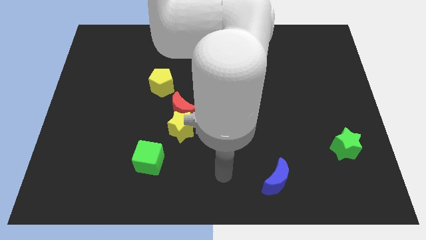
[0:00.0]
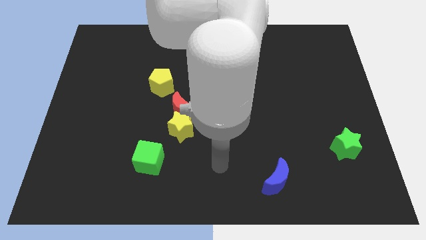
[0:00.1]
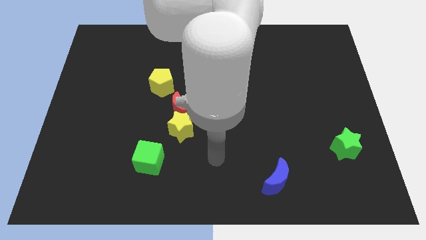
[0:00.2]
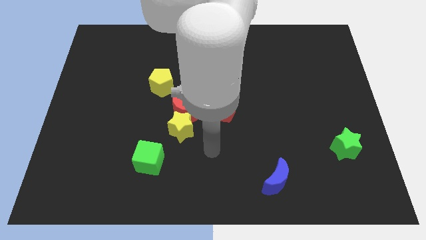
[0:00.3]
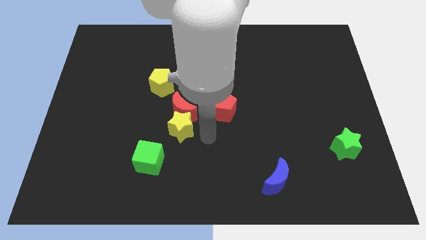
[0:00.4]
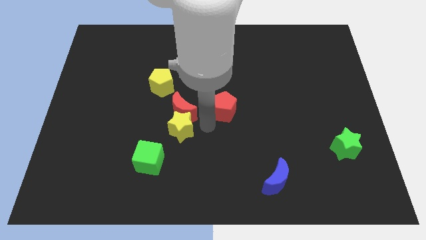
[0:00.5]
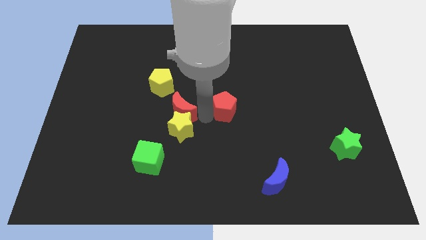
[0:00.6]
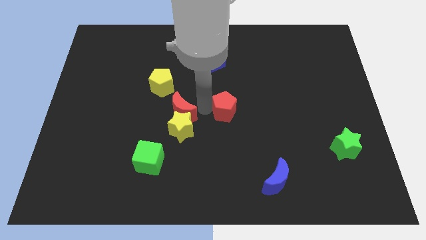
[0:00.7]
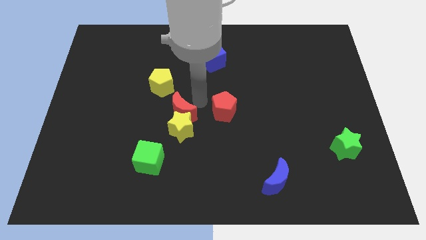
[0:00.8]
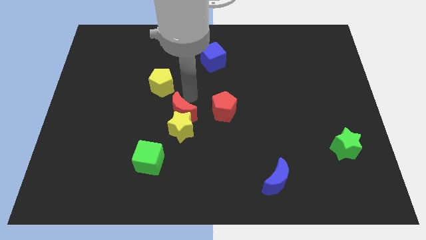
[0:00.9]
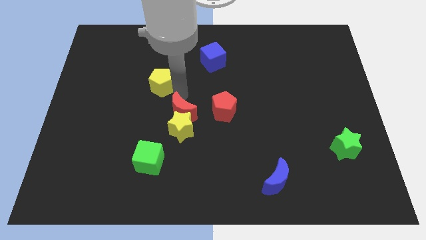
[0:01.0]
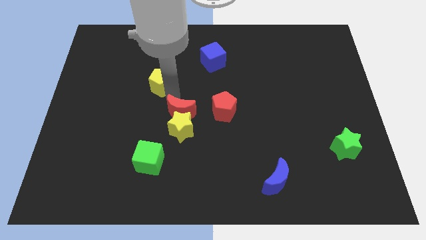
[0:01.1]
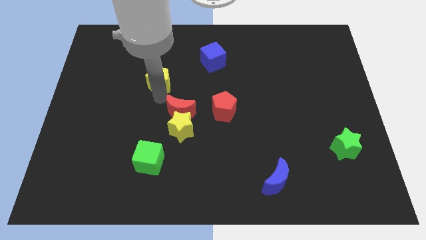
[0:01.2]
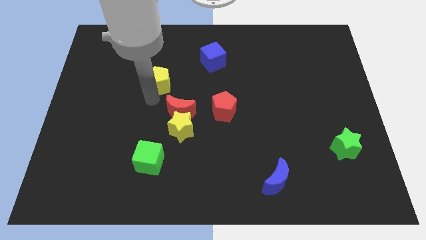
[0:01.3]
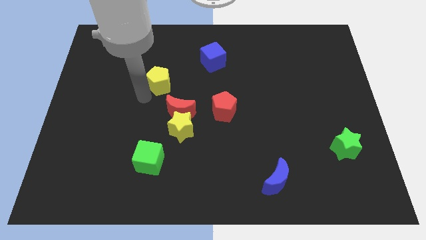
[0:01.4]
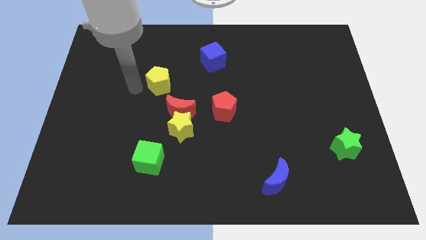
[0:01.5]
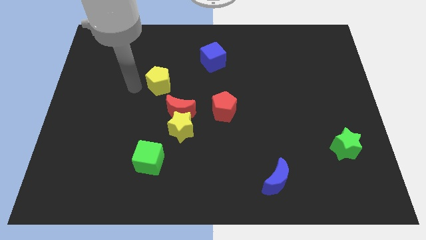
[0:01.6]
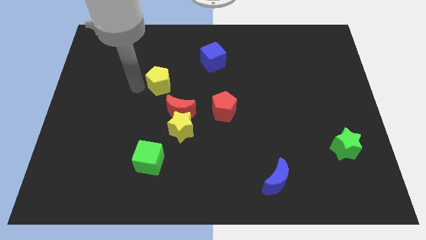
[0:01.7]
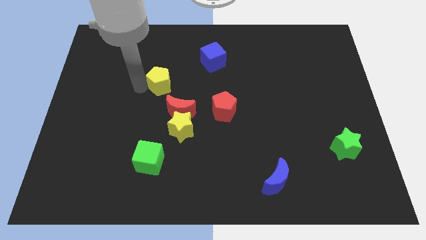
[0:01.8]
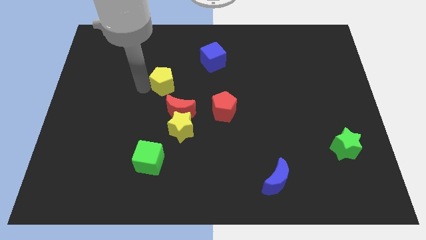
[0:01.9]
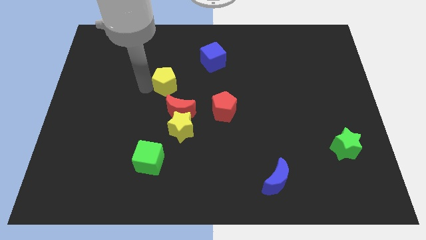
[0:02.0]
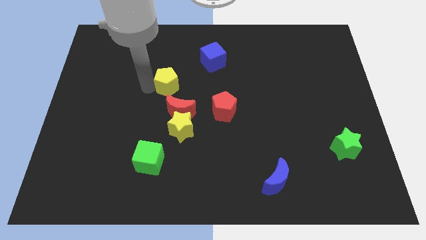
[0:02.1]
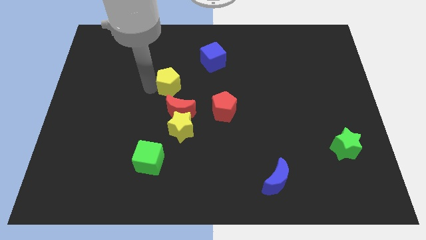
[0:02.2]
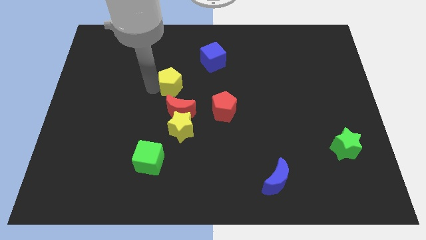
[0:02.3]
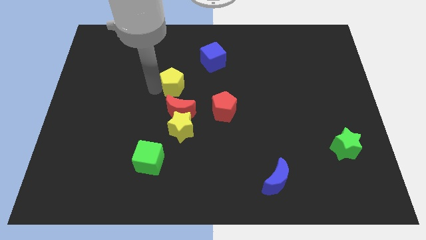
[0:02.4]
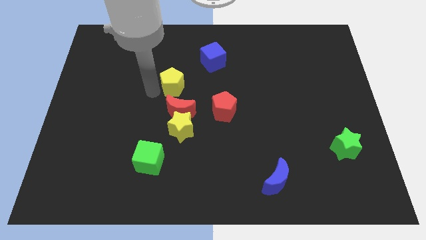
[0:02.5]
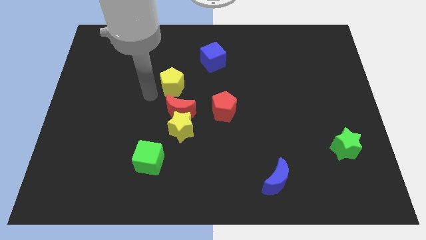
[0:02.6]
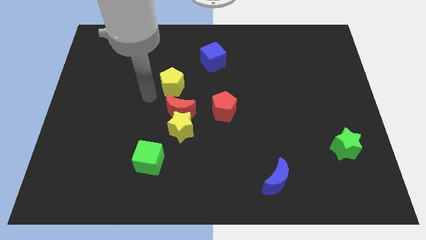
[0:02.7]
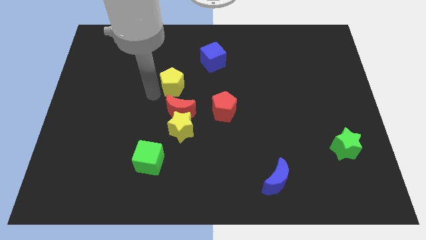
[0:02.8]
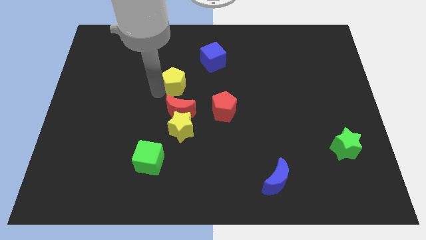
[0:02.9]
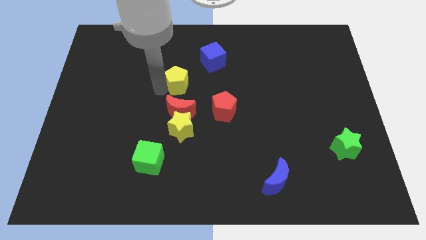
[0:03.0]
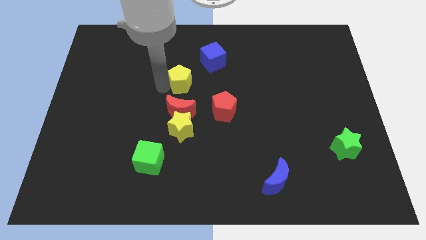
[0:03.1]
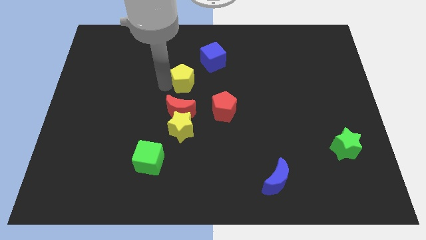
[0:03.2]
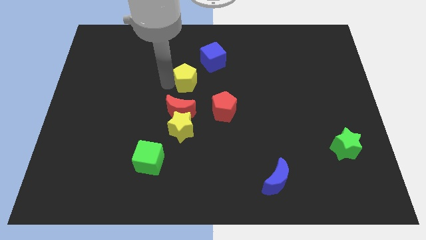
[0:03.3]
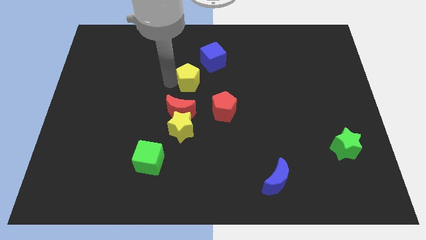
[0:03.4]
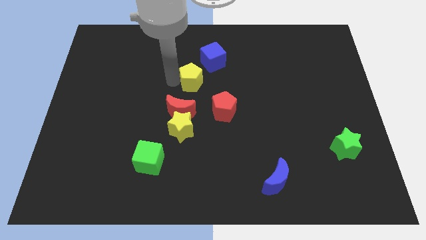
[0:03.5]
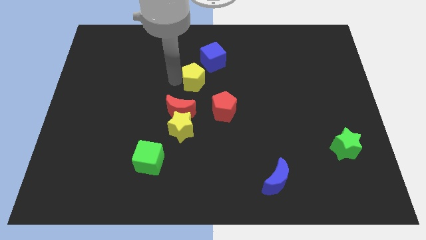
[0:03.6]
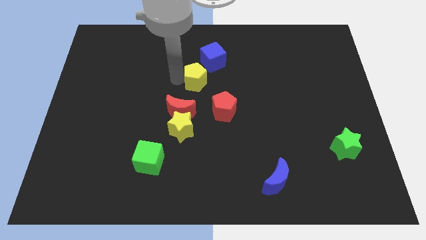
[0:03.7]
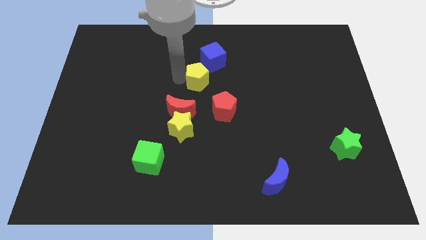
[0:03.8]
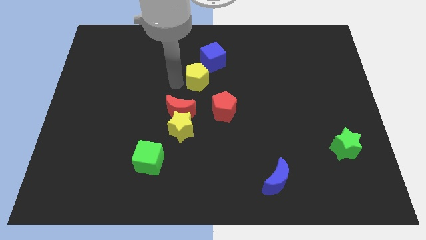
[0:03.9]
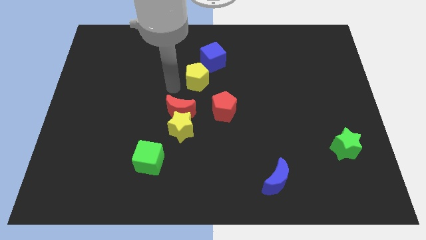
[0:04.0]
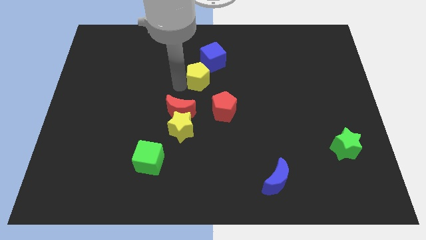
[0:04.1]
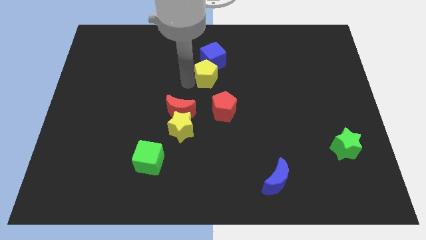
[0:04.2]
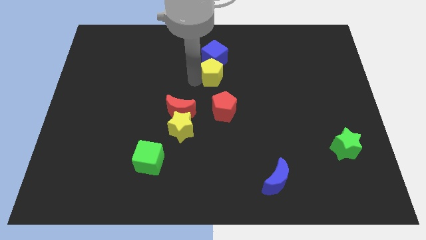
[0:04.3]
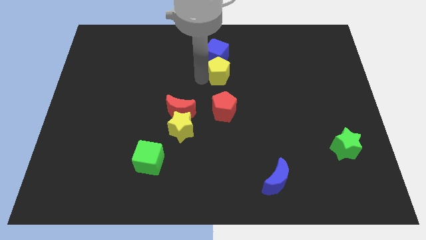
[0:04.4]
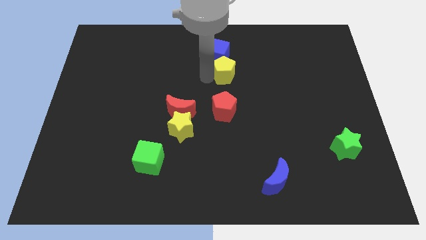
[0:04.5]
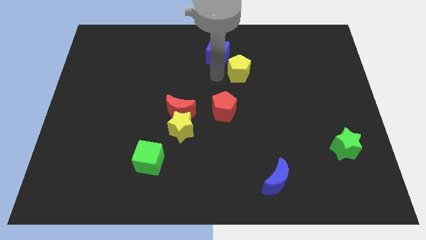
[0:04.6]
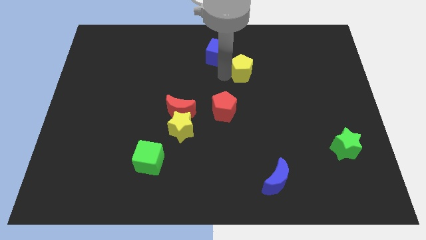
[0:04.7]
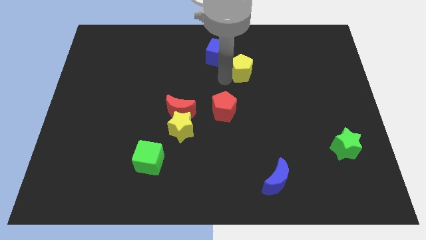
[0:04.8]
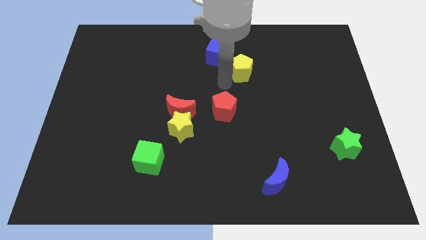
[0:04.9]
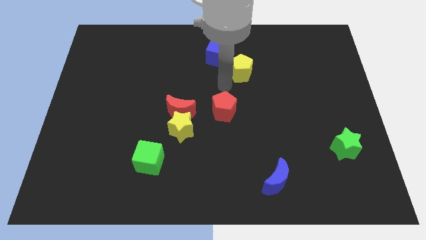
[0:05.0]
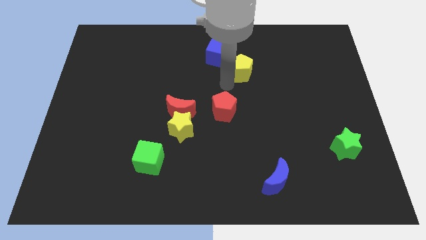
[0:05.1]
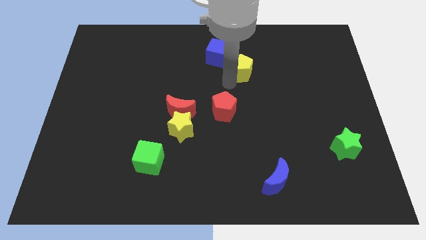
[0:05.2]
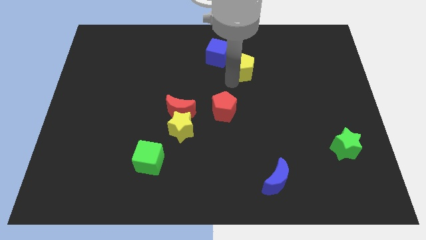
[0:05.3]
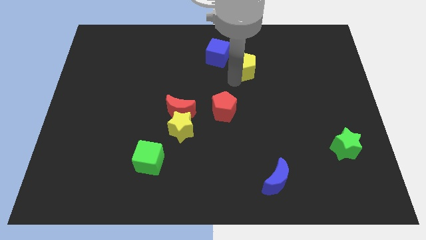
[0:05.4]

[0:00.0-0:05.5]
move the yellow pentagon to the right side of the blue cube

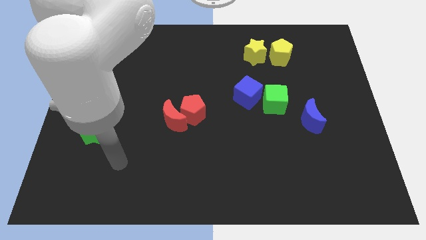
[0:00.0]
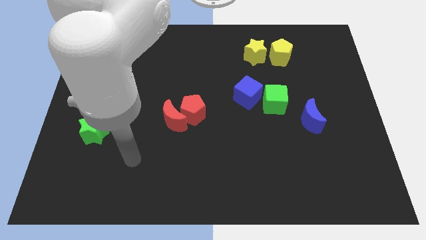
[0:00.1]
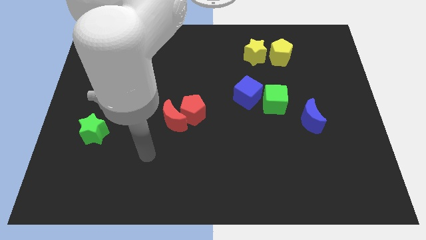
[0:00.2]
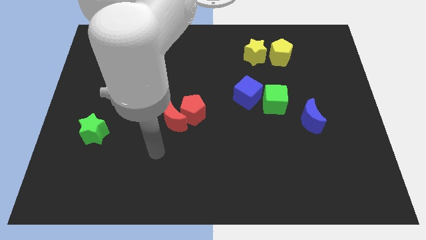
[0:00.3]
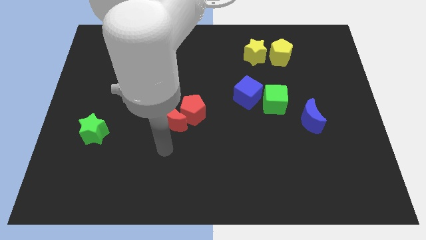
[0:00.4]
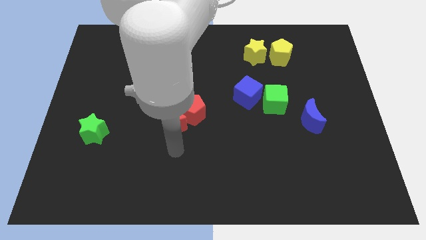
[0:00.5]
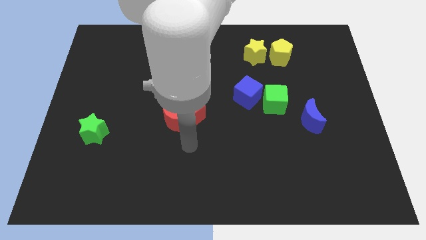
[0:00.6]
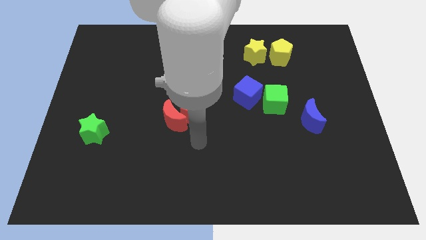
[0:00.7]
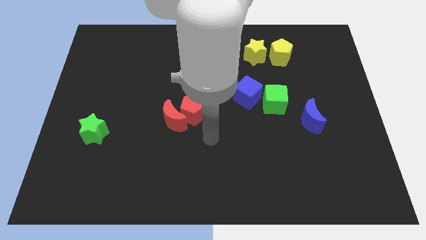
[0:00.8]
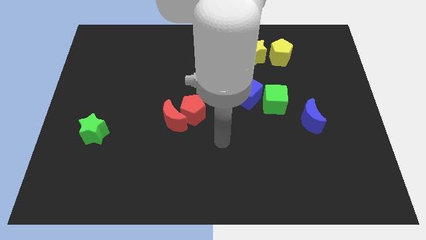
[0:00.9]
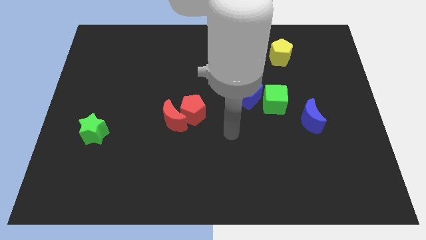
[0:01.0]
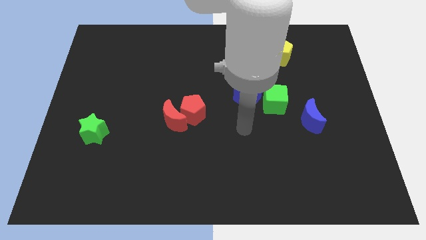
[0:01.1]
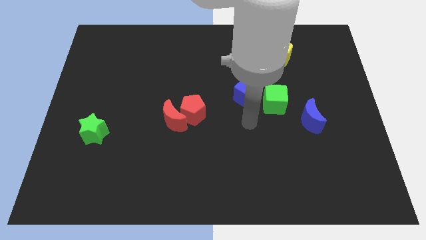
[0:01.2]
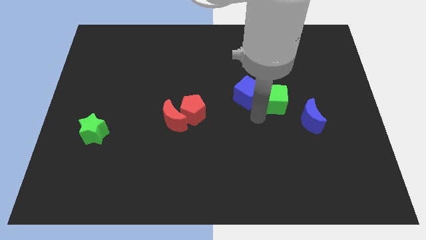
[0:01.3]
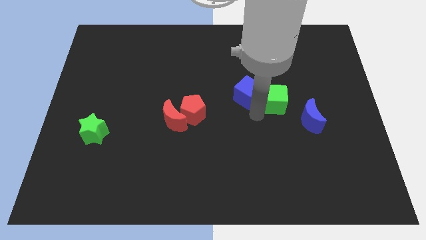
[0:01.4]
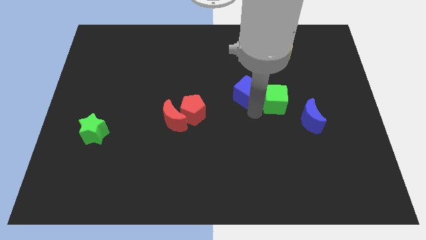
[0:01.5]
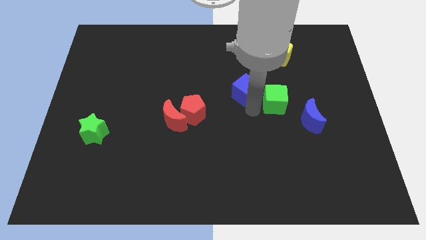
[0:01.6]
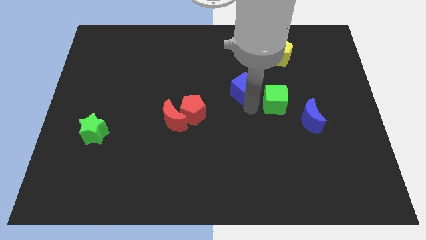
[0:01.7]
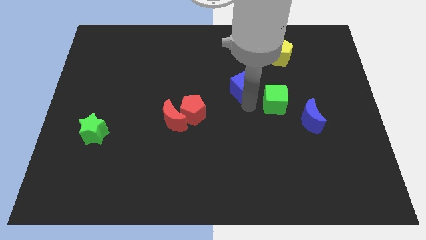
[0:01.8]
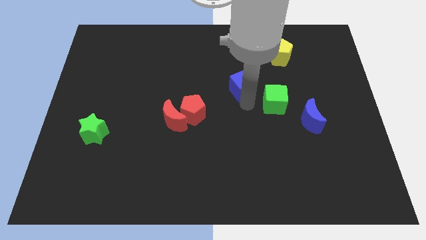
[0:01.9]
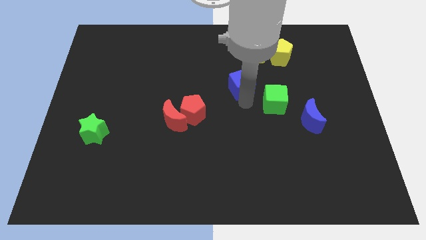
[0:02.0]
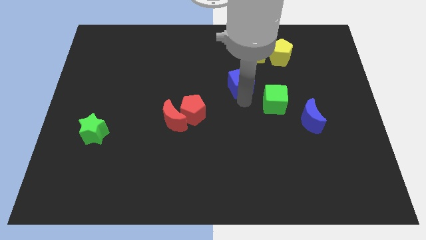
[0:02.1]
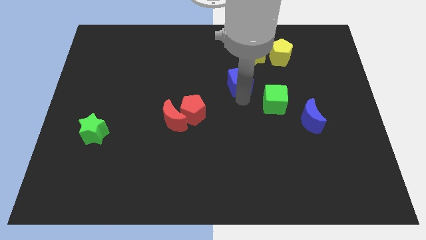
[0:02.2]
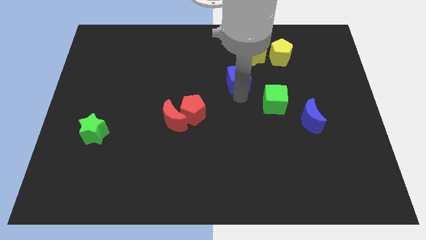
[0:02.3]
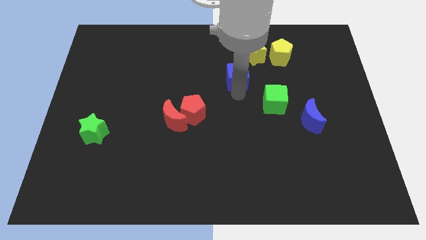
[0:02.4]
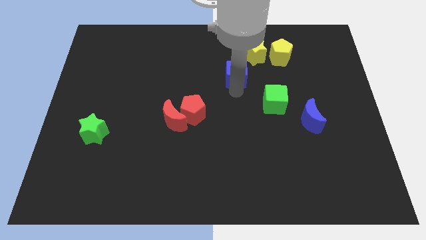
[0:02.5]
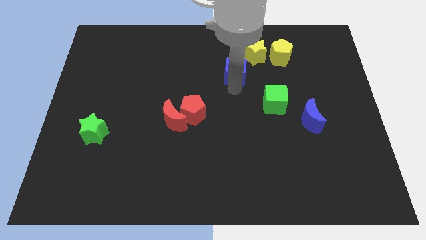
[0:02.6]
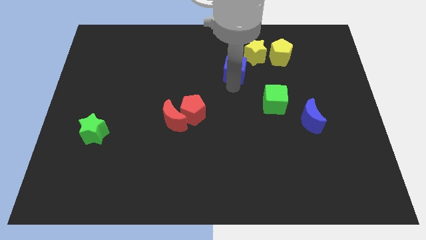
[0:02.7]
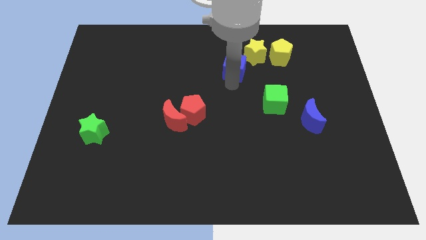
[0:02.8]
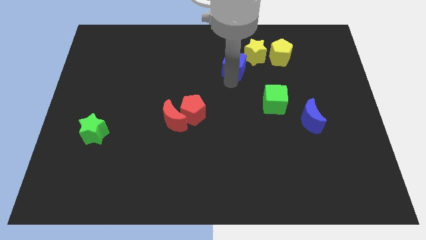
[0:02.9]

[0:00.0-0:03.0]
push the blue cube to the left of the yellow pentagon
